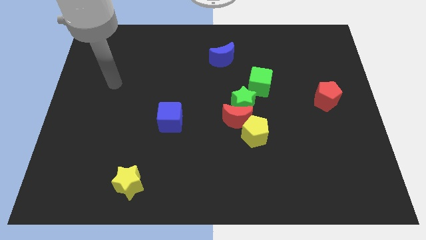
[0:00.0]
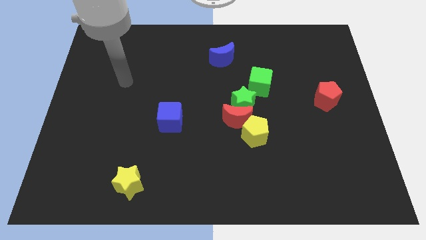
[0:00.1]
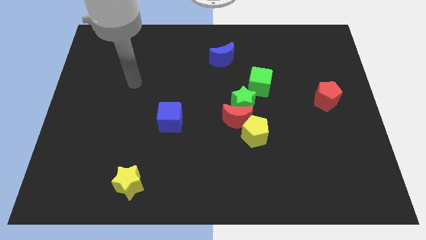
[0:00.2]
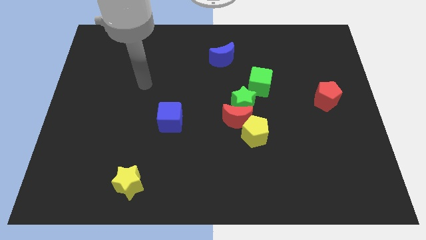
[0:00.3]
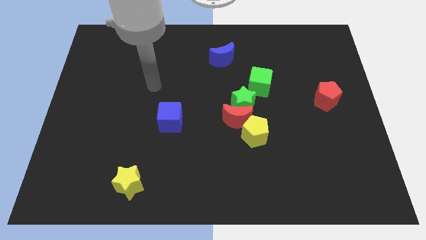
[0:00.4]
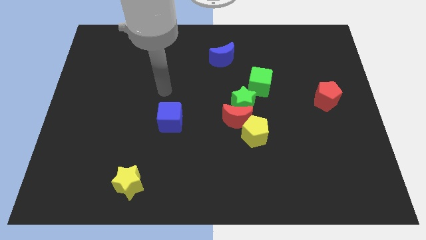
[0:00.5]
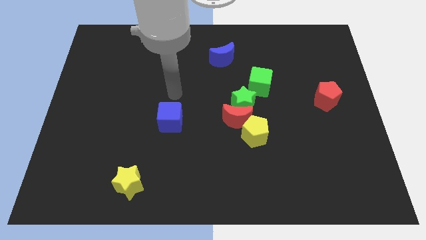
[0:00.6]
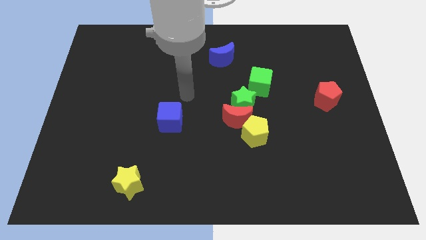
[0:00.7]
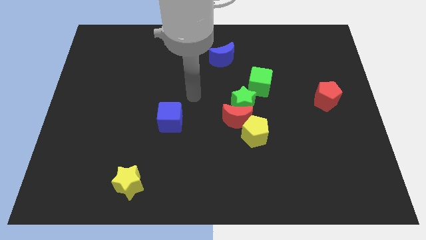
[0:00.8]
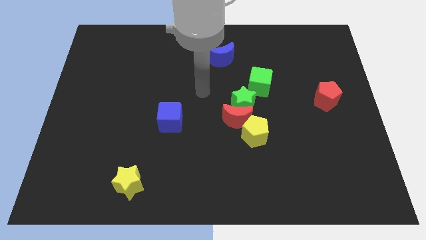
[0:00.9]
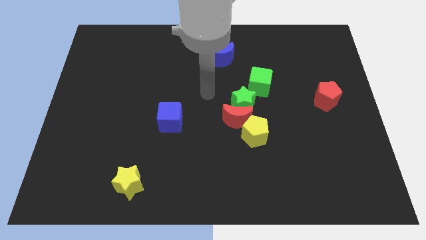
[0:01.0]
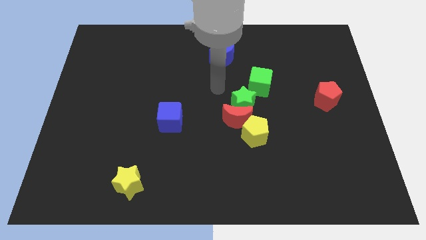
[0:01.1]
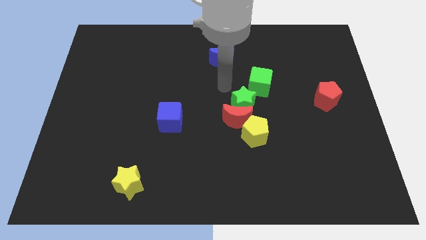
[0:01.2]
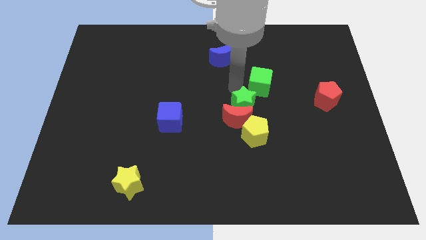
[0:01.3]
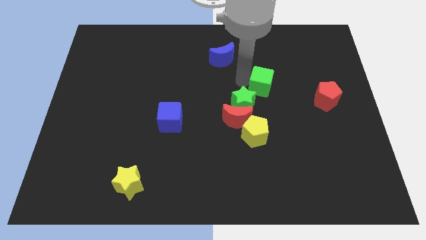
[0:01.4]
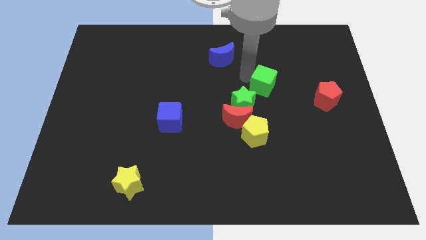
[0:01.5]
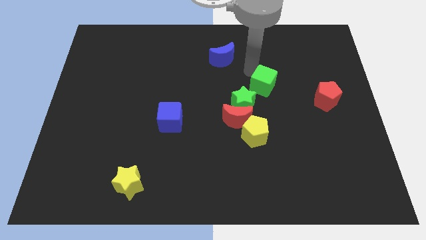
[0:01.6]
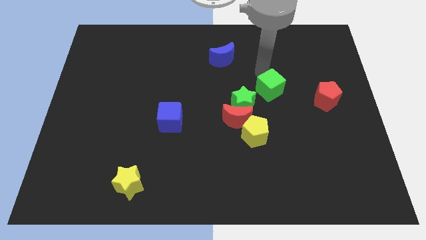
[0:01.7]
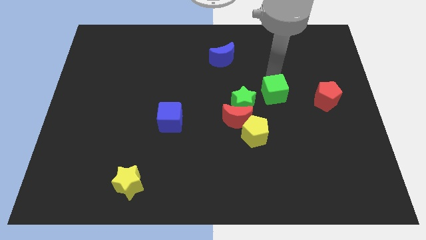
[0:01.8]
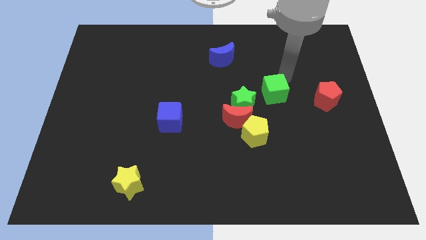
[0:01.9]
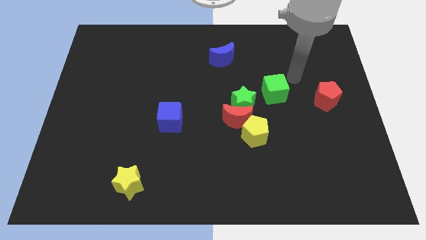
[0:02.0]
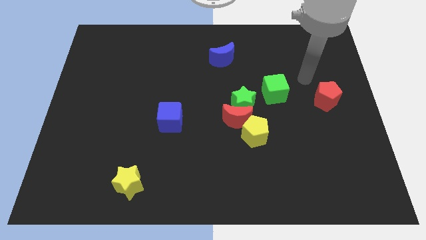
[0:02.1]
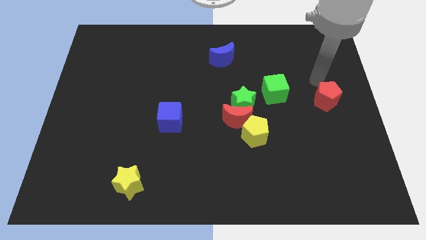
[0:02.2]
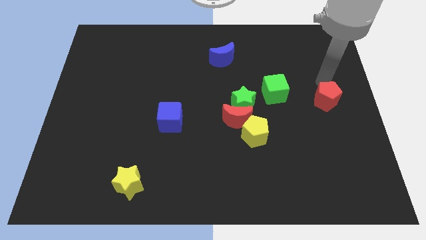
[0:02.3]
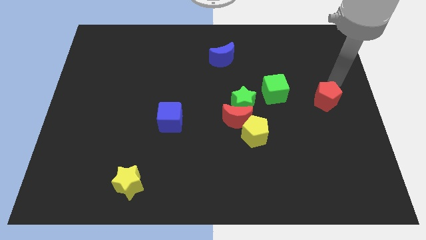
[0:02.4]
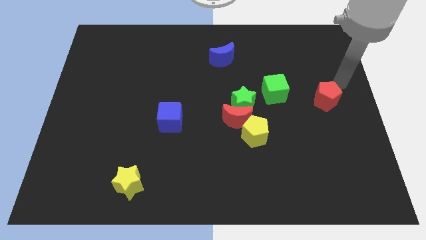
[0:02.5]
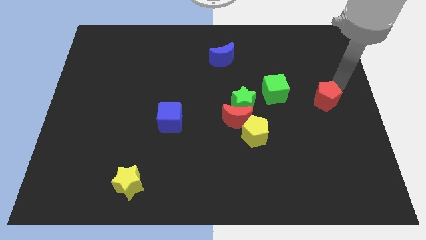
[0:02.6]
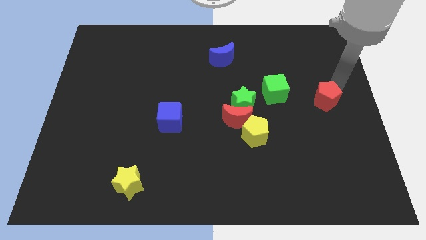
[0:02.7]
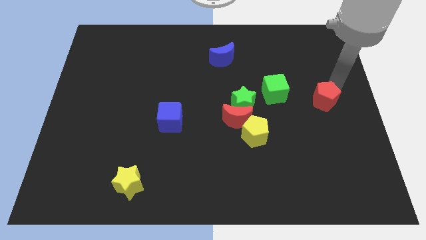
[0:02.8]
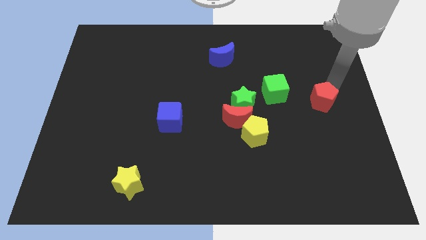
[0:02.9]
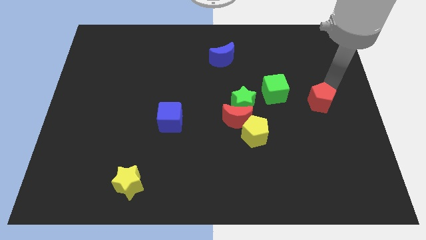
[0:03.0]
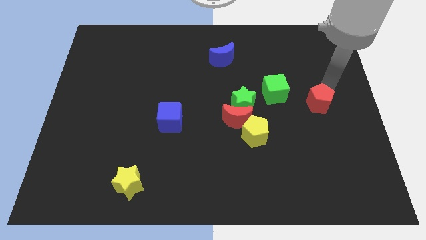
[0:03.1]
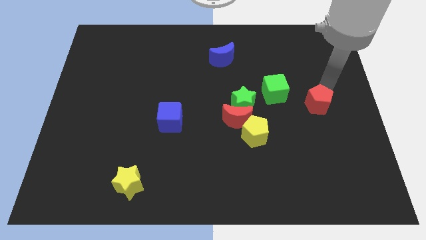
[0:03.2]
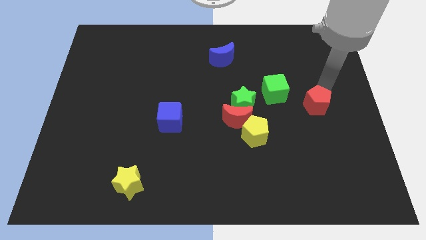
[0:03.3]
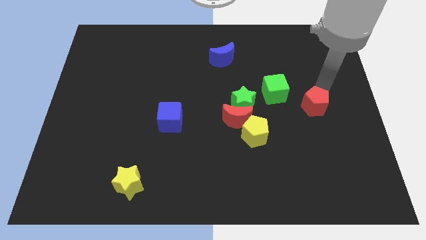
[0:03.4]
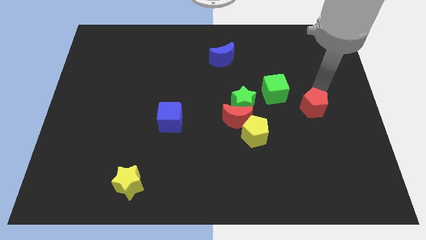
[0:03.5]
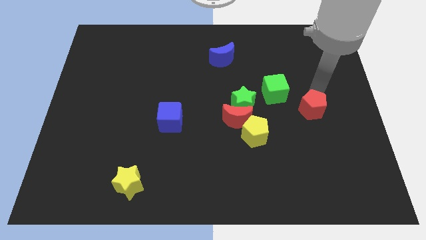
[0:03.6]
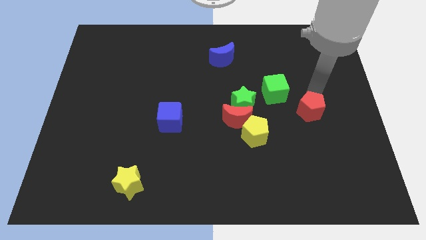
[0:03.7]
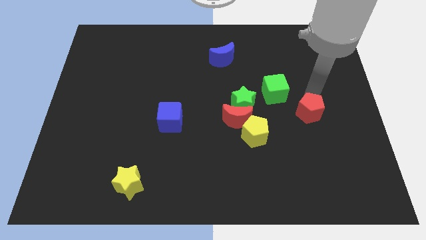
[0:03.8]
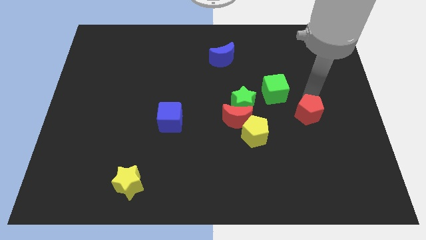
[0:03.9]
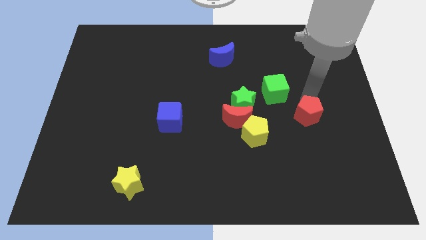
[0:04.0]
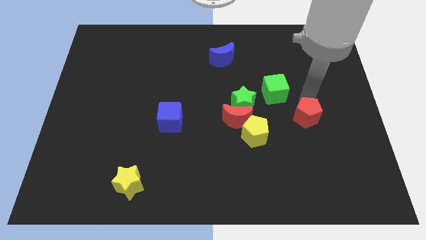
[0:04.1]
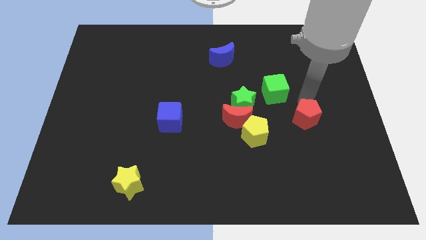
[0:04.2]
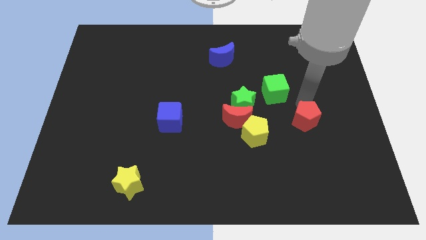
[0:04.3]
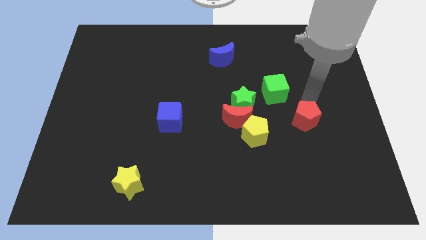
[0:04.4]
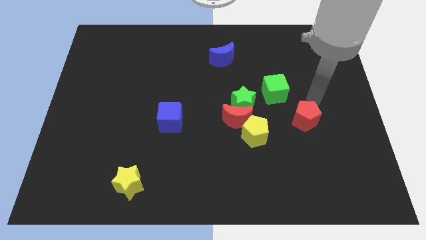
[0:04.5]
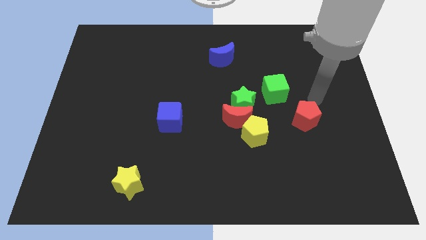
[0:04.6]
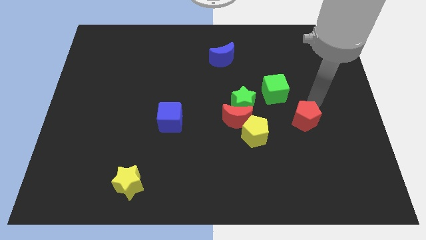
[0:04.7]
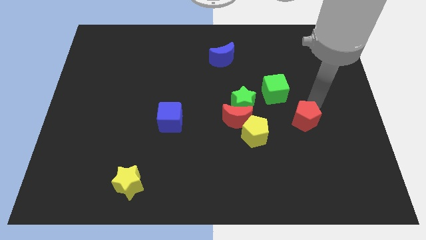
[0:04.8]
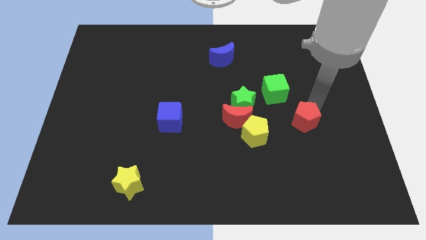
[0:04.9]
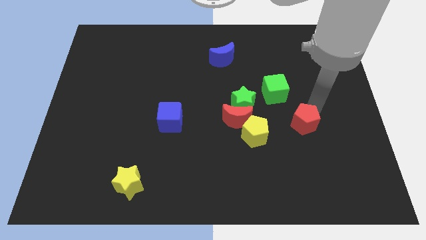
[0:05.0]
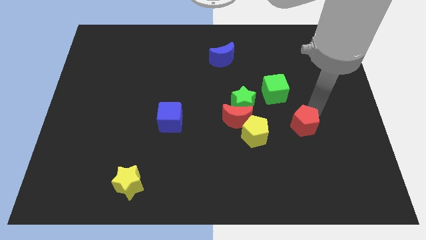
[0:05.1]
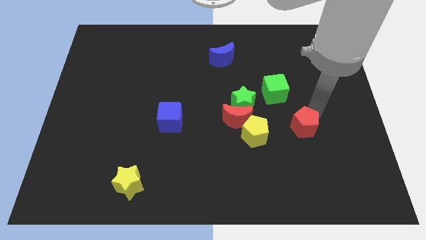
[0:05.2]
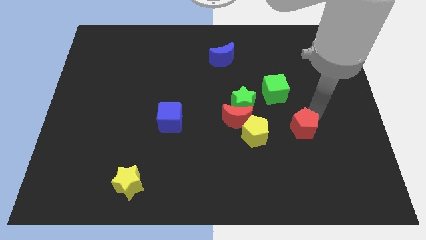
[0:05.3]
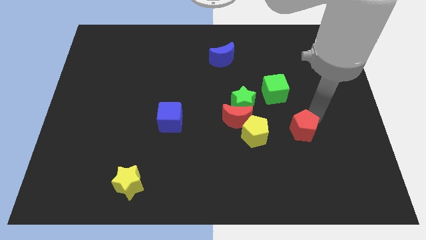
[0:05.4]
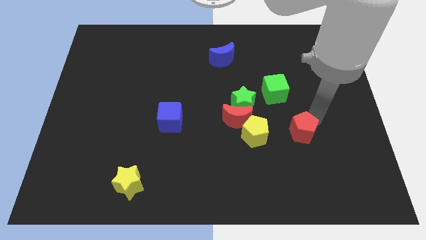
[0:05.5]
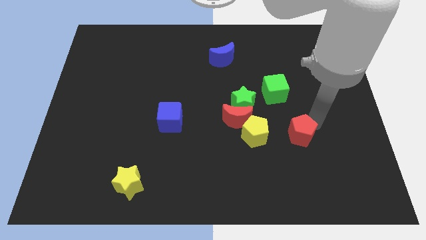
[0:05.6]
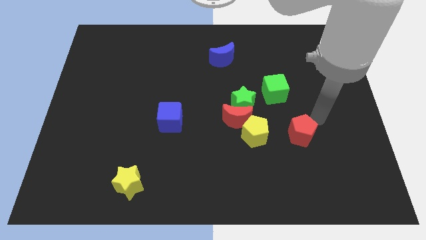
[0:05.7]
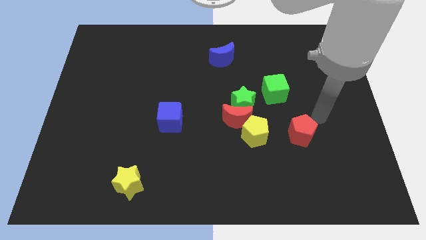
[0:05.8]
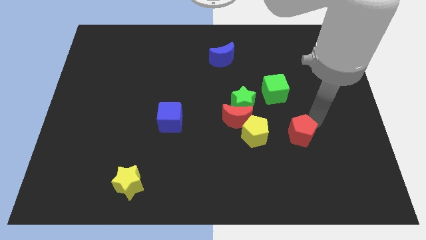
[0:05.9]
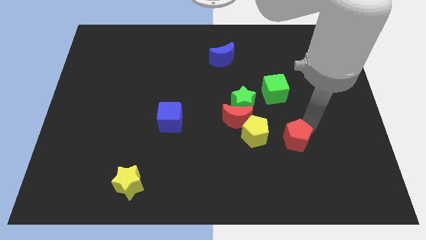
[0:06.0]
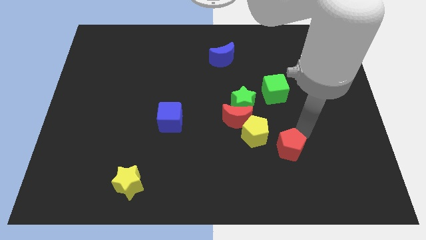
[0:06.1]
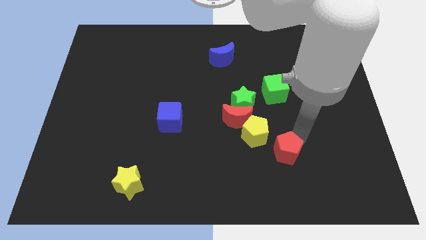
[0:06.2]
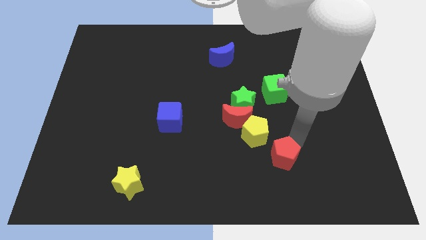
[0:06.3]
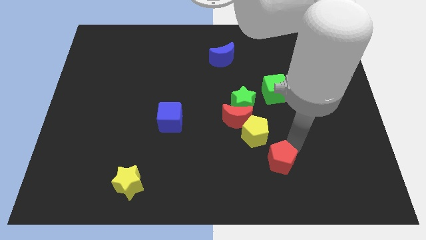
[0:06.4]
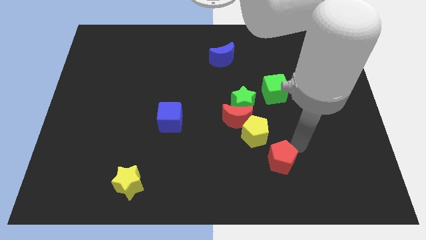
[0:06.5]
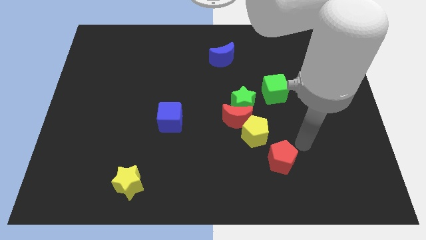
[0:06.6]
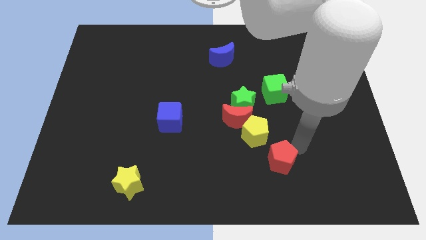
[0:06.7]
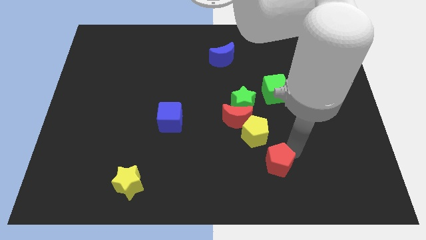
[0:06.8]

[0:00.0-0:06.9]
move the red pentagon to the bottom side of the yellow pentagon

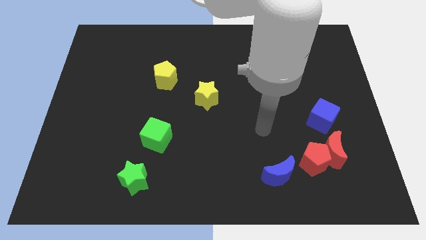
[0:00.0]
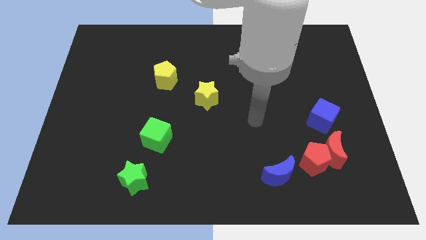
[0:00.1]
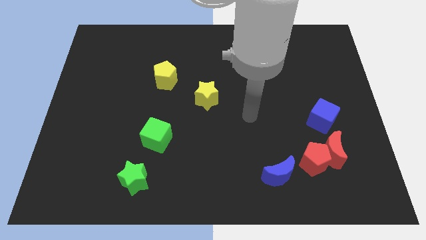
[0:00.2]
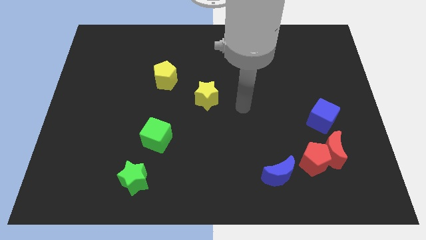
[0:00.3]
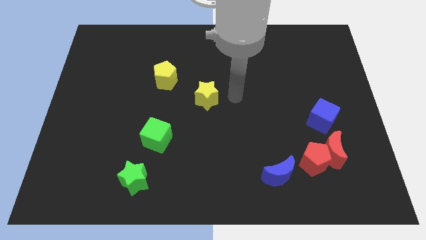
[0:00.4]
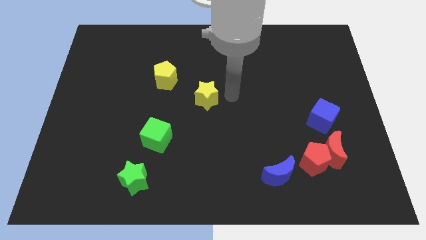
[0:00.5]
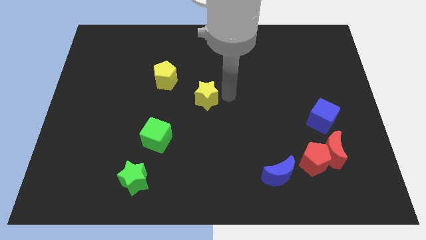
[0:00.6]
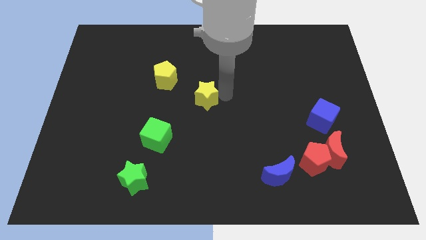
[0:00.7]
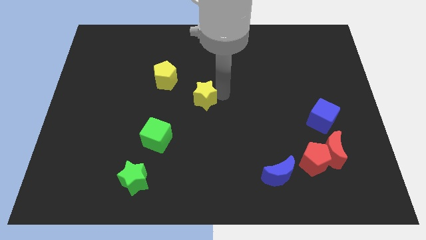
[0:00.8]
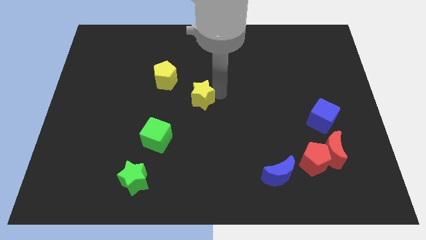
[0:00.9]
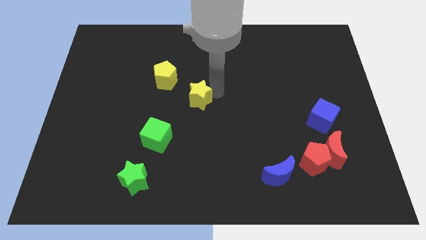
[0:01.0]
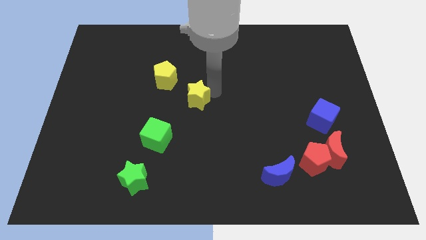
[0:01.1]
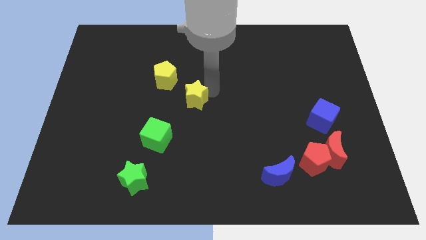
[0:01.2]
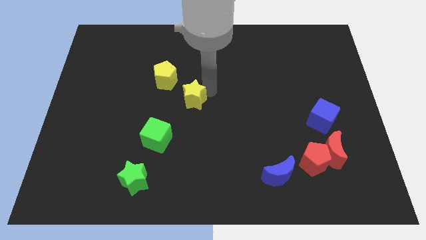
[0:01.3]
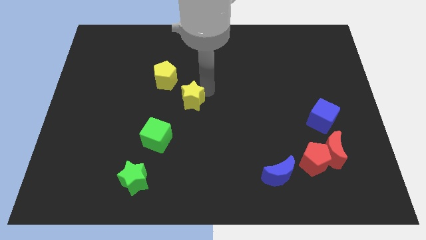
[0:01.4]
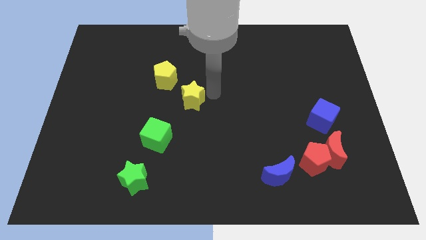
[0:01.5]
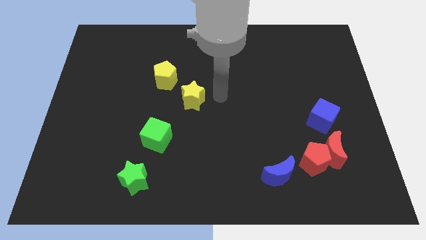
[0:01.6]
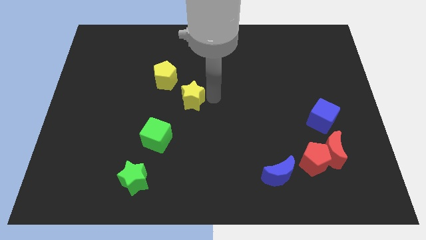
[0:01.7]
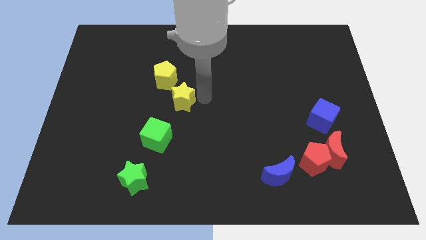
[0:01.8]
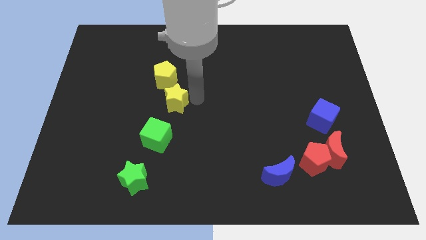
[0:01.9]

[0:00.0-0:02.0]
move the yellow star to the top side of the green cube
